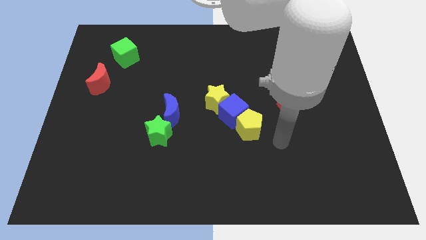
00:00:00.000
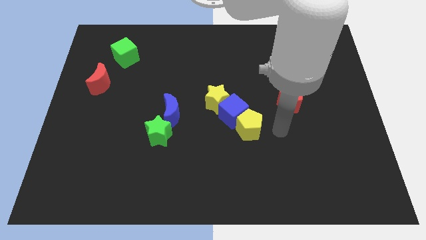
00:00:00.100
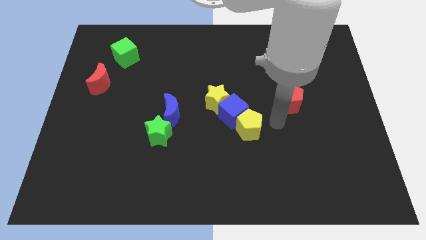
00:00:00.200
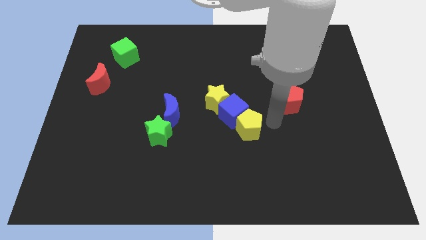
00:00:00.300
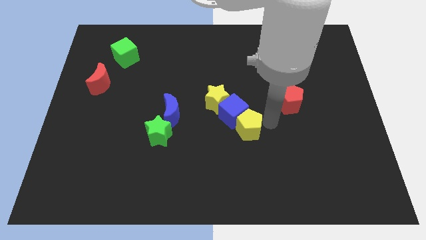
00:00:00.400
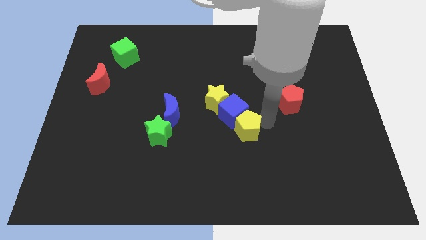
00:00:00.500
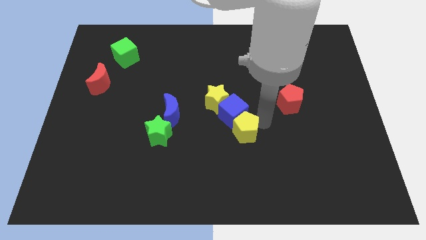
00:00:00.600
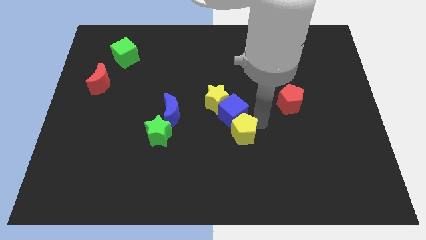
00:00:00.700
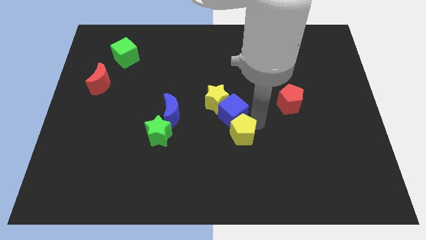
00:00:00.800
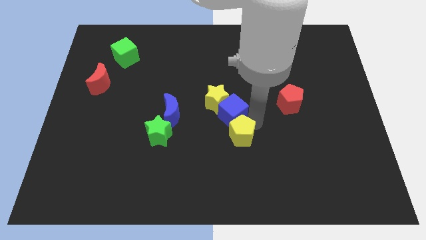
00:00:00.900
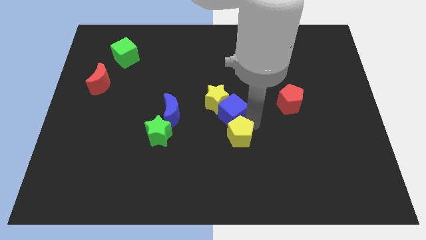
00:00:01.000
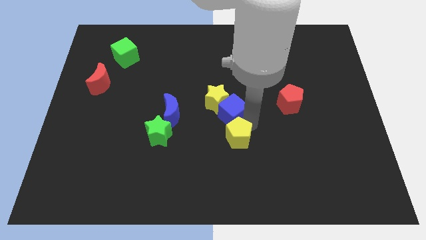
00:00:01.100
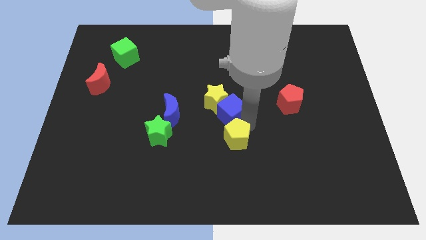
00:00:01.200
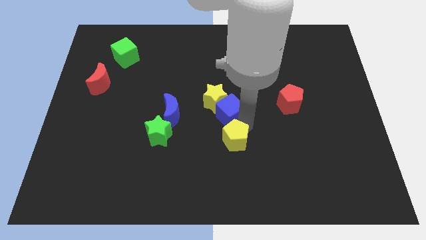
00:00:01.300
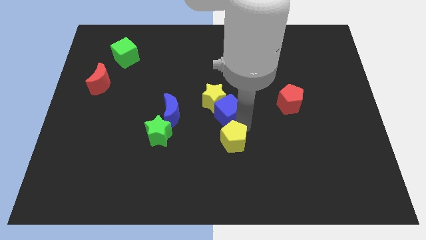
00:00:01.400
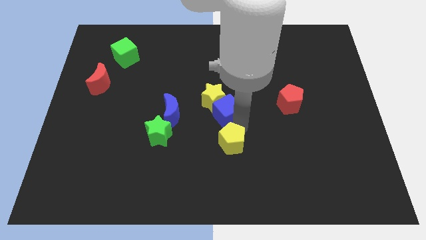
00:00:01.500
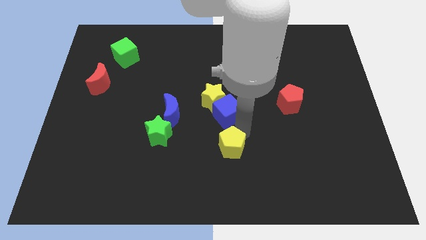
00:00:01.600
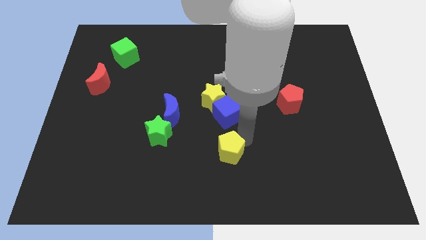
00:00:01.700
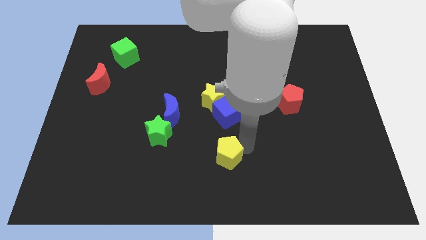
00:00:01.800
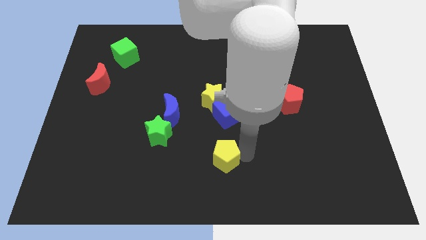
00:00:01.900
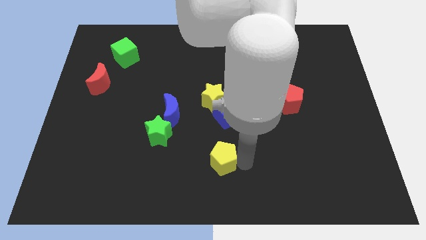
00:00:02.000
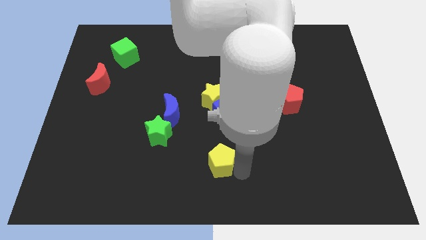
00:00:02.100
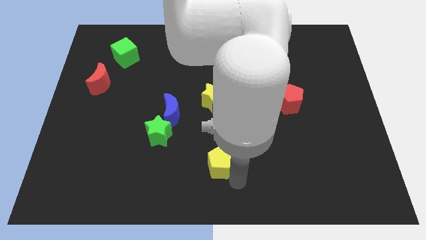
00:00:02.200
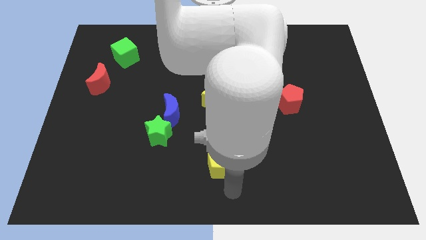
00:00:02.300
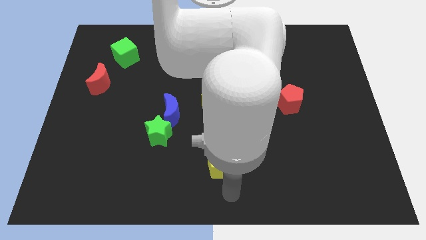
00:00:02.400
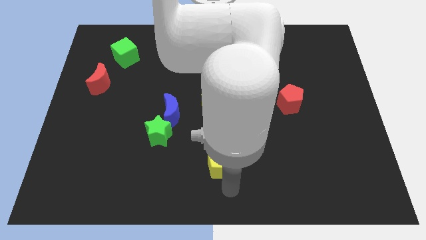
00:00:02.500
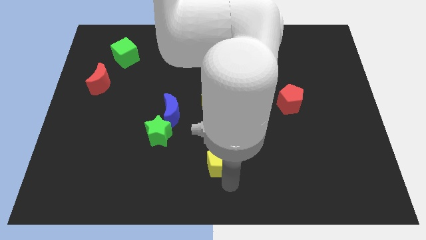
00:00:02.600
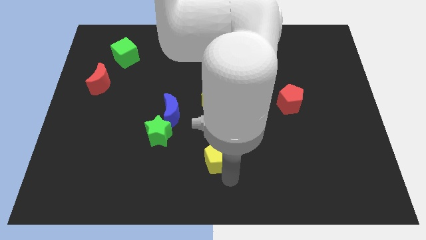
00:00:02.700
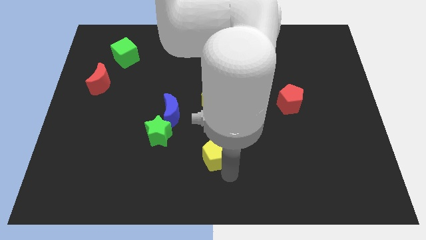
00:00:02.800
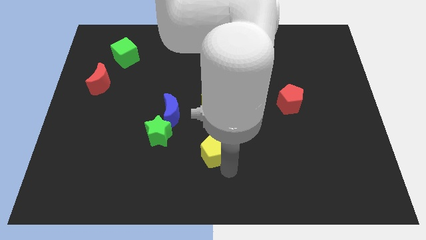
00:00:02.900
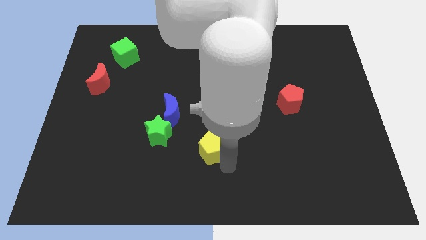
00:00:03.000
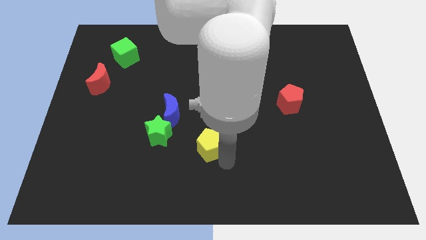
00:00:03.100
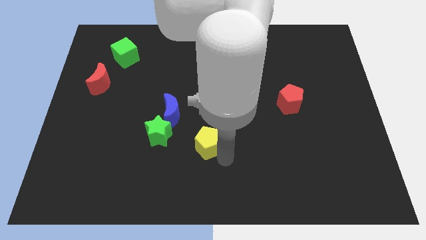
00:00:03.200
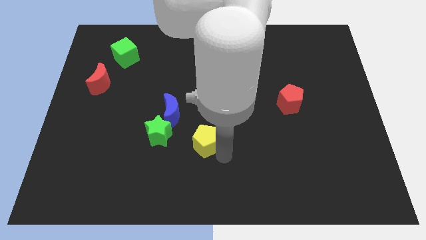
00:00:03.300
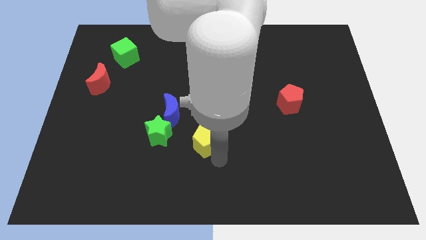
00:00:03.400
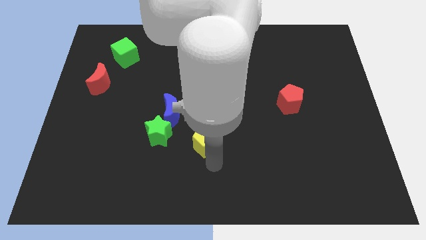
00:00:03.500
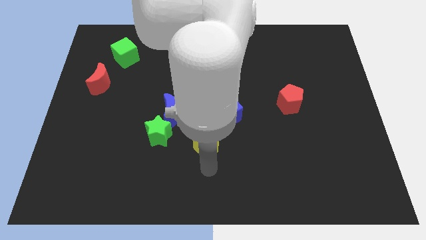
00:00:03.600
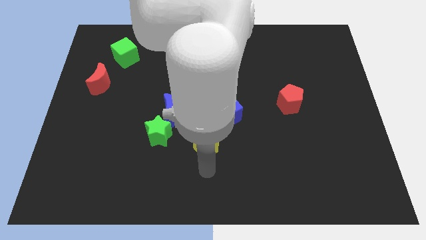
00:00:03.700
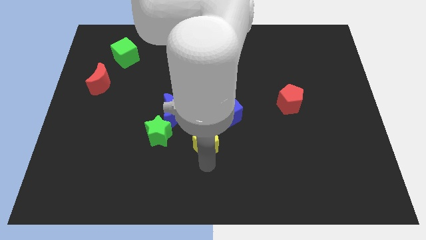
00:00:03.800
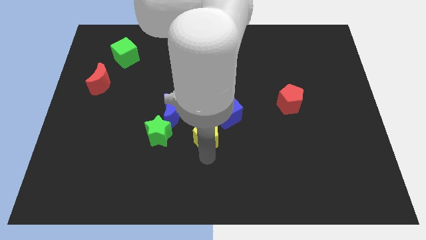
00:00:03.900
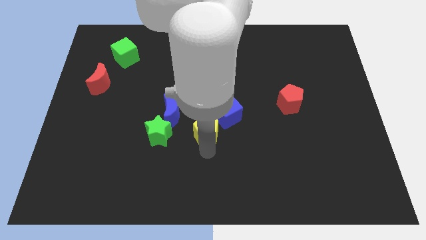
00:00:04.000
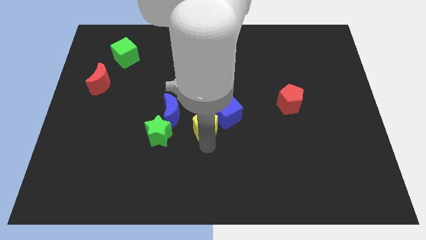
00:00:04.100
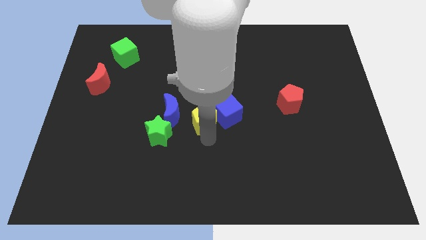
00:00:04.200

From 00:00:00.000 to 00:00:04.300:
push the yellow pentagon slightly up and left

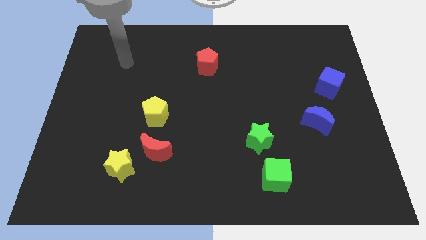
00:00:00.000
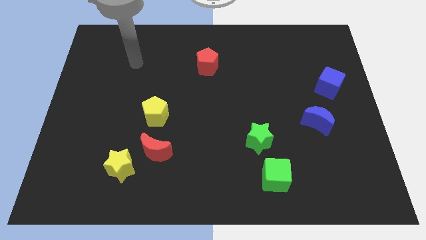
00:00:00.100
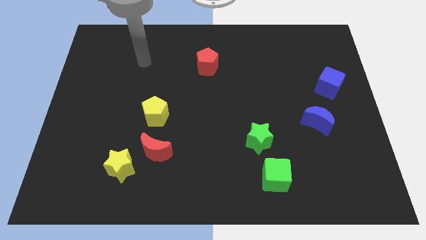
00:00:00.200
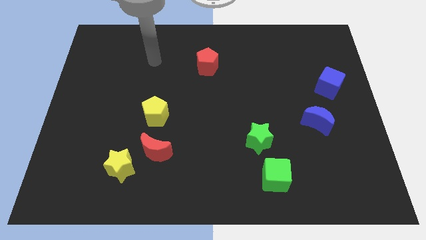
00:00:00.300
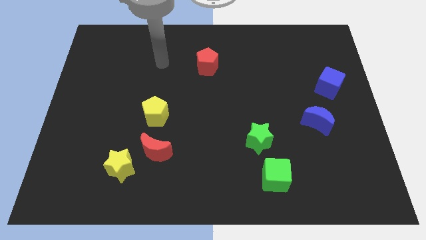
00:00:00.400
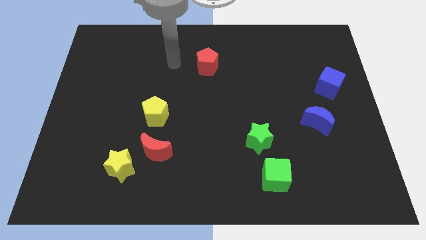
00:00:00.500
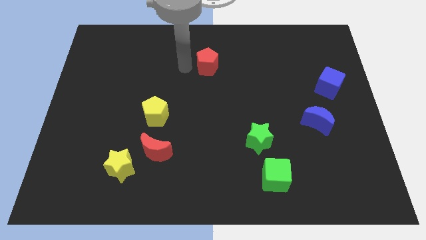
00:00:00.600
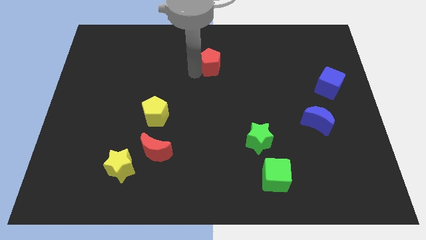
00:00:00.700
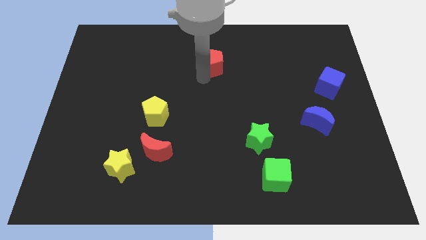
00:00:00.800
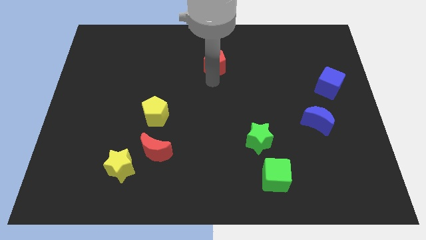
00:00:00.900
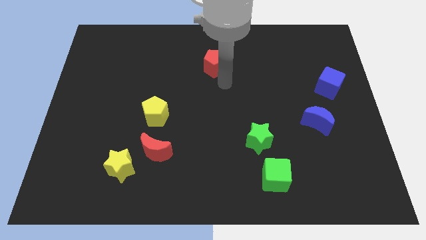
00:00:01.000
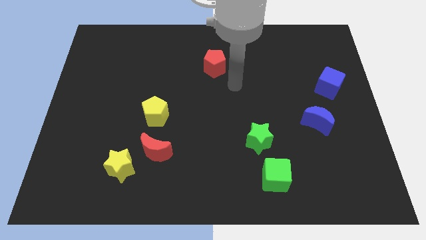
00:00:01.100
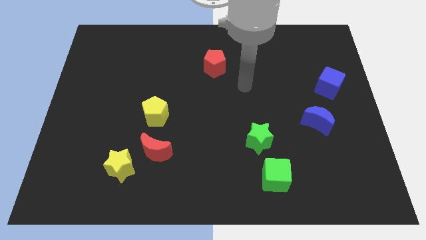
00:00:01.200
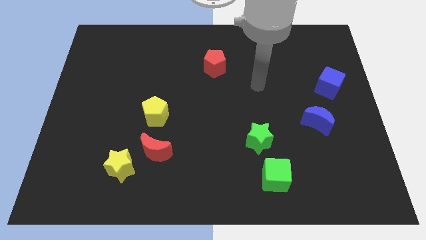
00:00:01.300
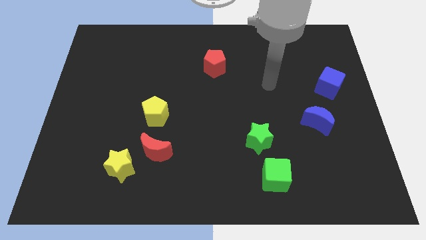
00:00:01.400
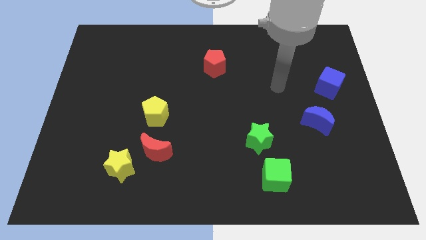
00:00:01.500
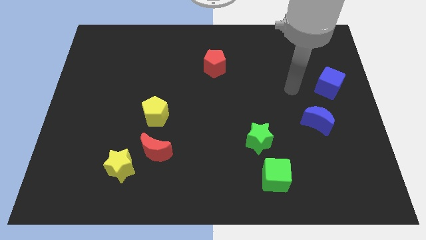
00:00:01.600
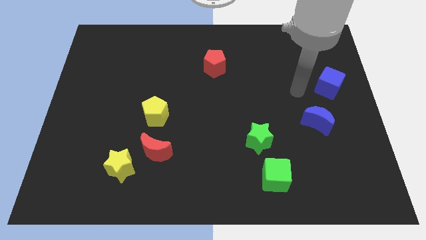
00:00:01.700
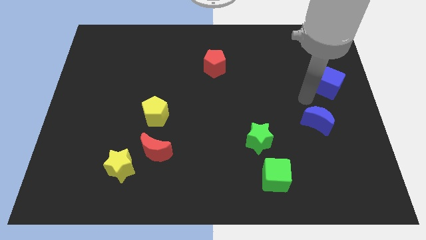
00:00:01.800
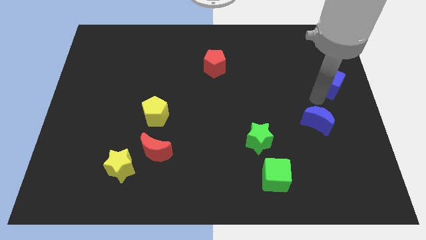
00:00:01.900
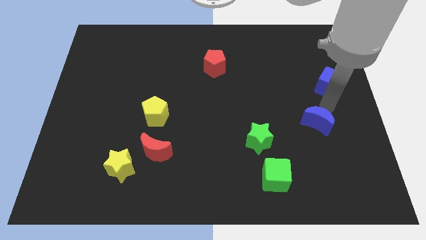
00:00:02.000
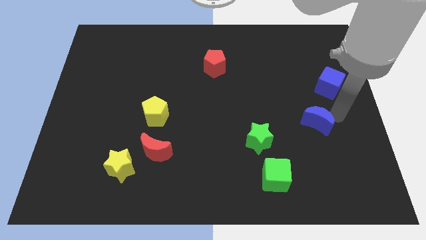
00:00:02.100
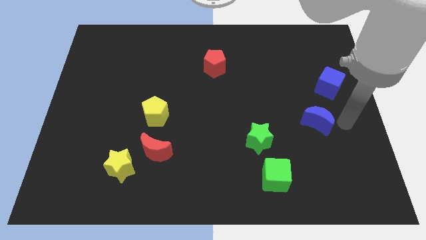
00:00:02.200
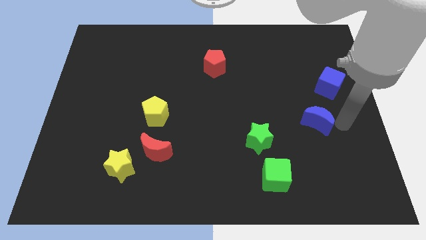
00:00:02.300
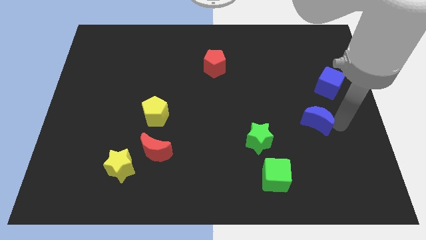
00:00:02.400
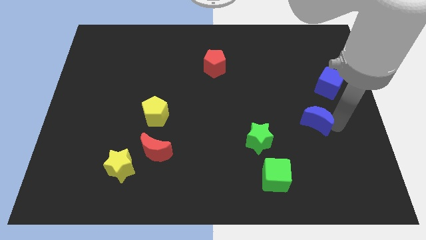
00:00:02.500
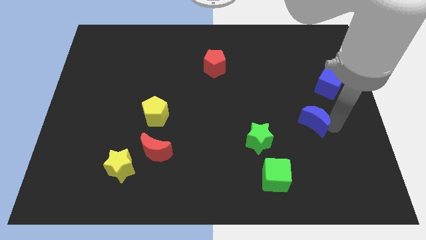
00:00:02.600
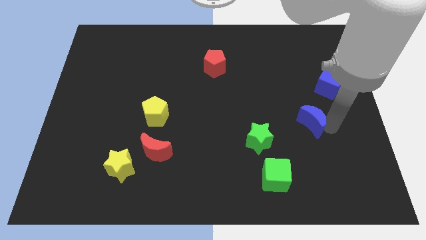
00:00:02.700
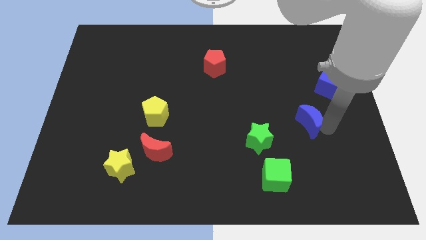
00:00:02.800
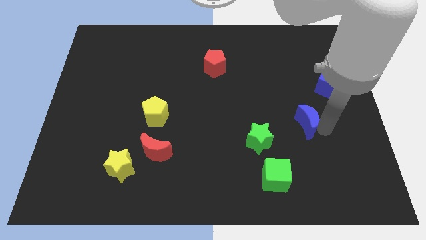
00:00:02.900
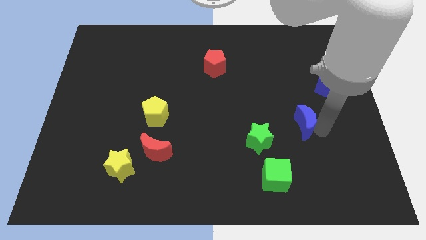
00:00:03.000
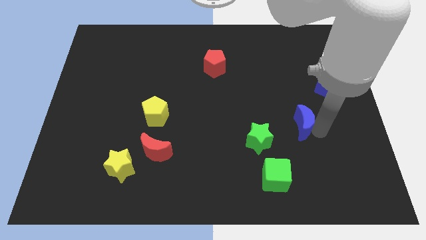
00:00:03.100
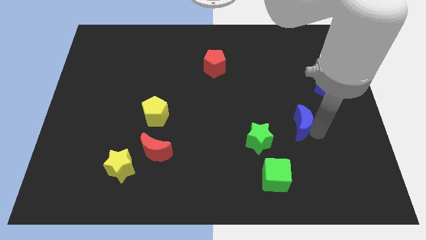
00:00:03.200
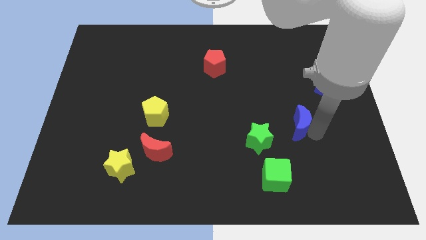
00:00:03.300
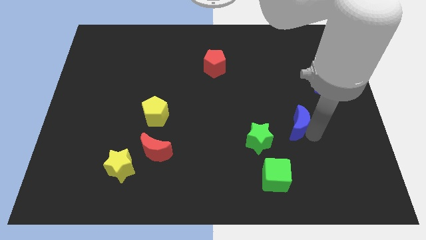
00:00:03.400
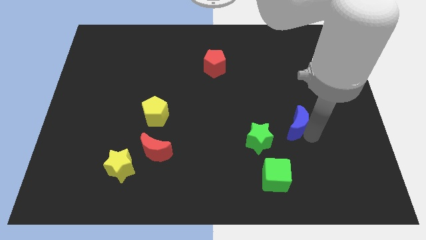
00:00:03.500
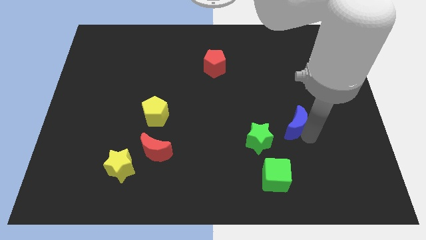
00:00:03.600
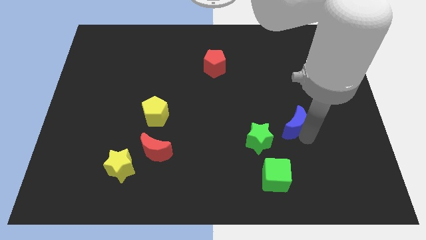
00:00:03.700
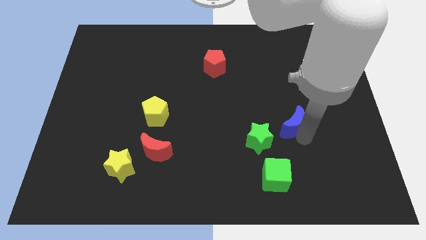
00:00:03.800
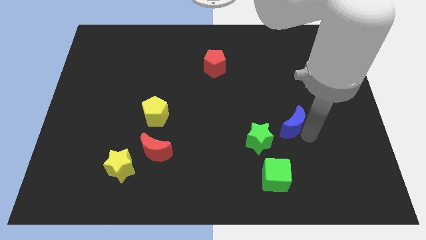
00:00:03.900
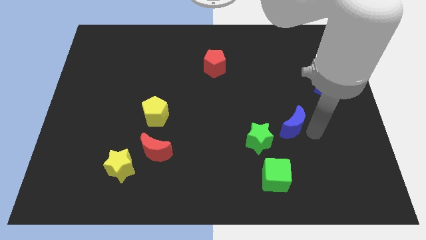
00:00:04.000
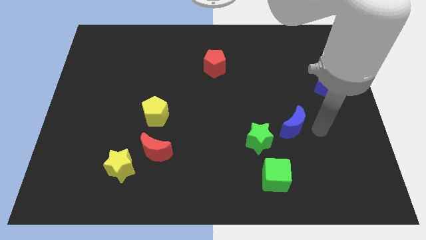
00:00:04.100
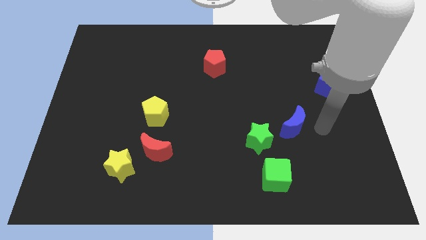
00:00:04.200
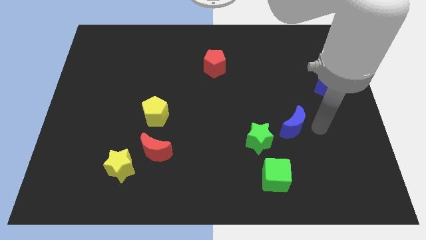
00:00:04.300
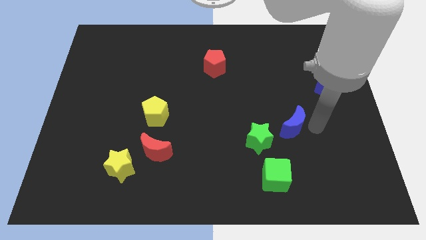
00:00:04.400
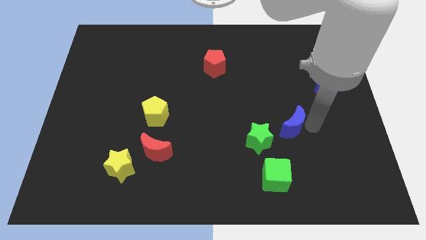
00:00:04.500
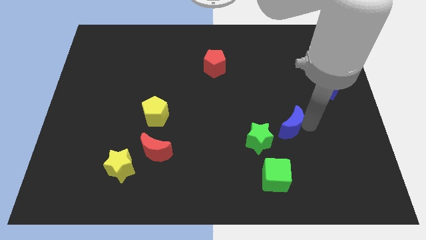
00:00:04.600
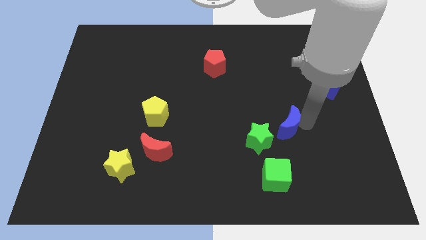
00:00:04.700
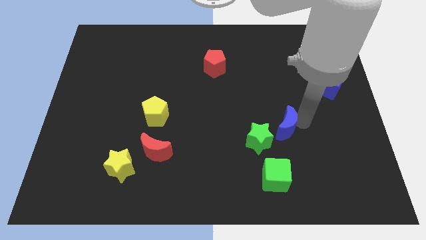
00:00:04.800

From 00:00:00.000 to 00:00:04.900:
move the blue moon slightly to the left
